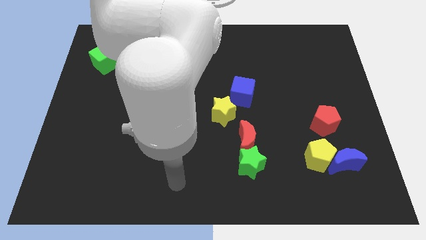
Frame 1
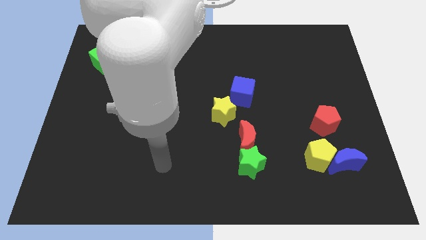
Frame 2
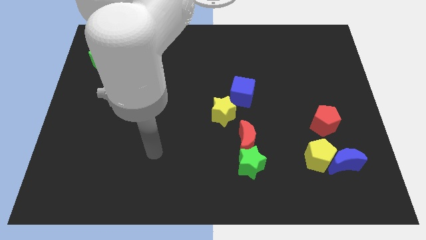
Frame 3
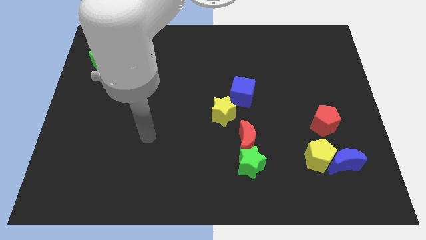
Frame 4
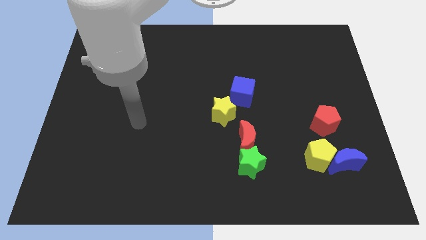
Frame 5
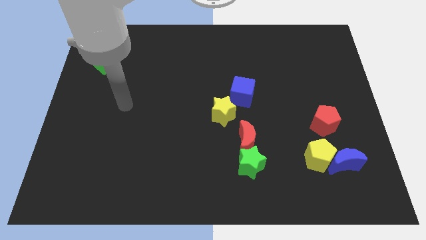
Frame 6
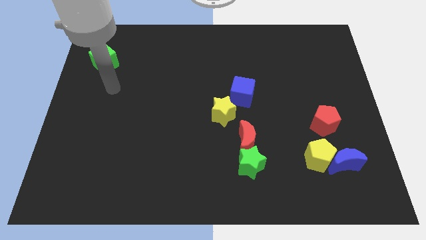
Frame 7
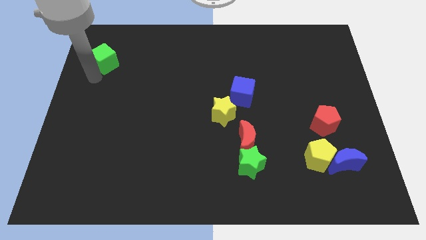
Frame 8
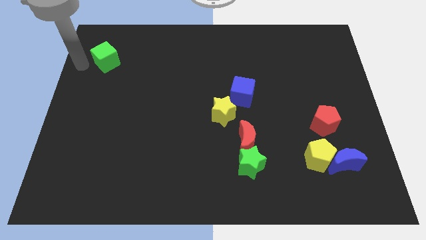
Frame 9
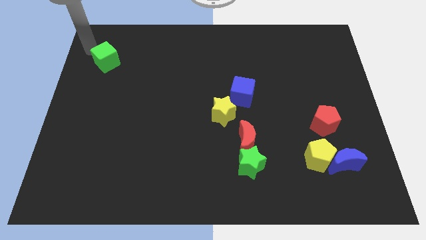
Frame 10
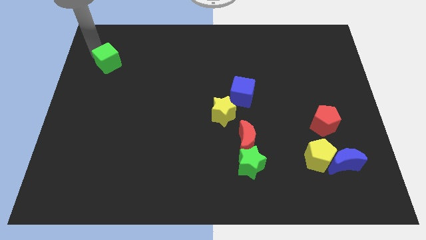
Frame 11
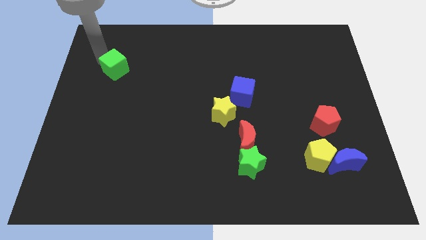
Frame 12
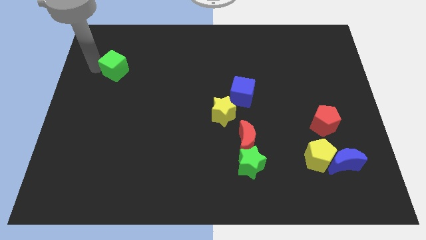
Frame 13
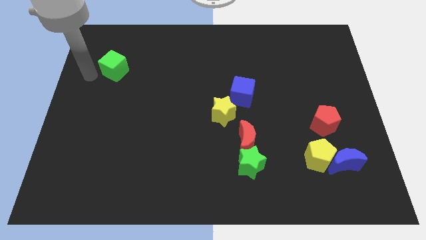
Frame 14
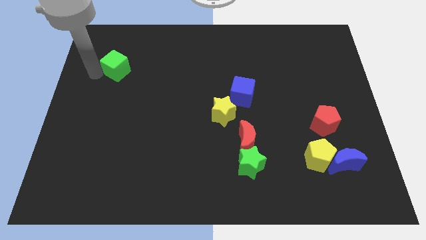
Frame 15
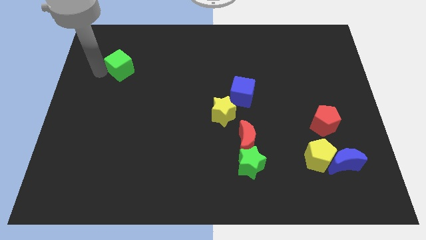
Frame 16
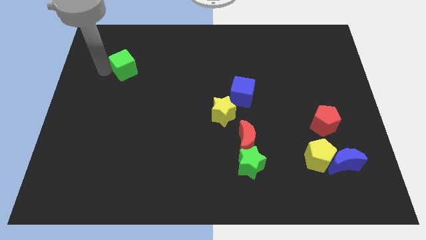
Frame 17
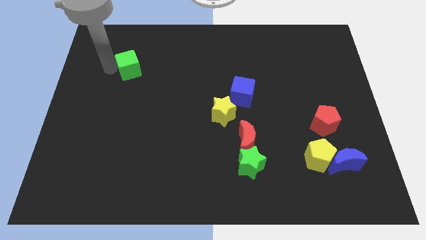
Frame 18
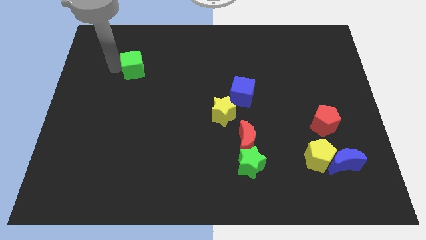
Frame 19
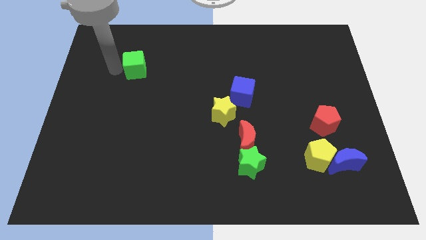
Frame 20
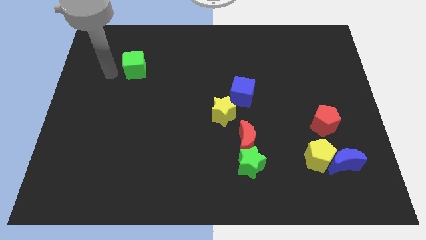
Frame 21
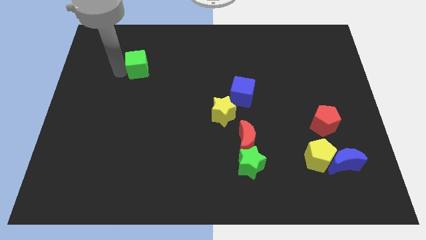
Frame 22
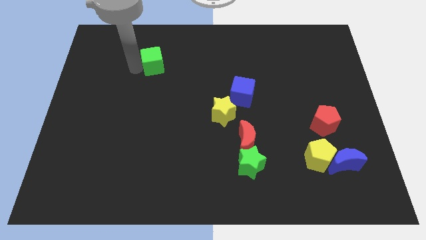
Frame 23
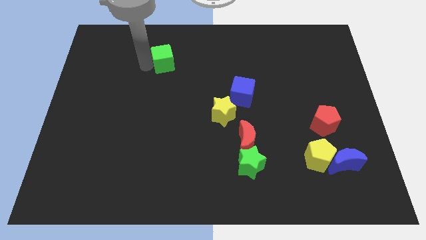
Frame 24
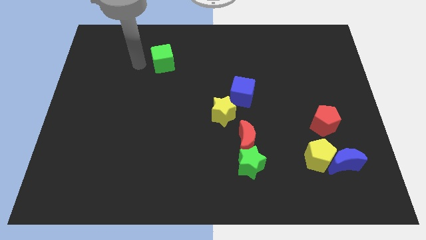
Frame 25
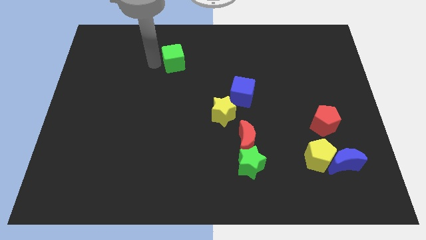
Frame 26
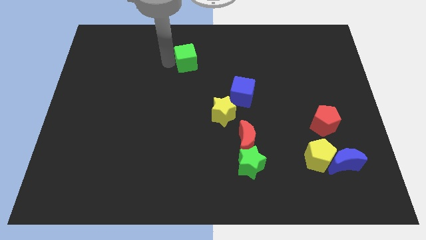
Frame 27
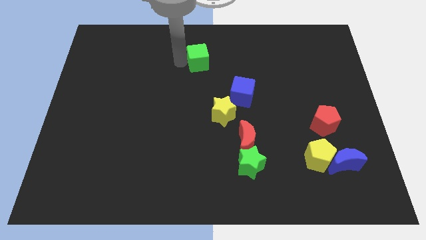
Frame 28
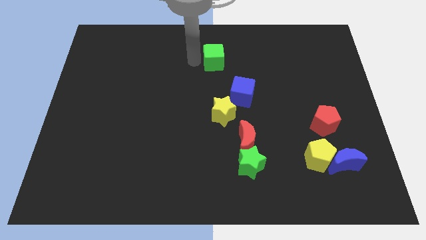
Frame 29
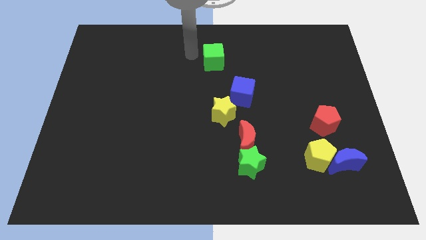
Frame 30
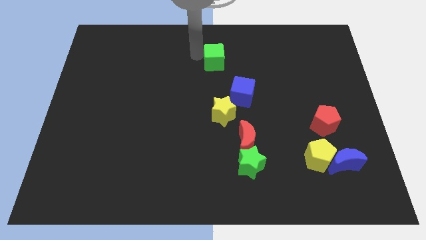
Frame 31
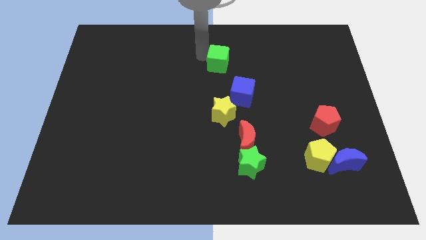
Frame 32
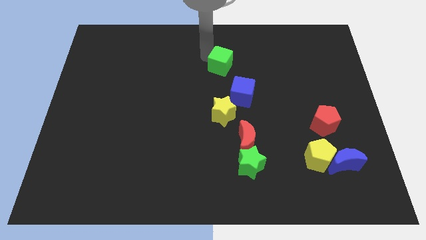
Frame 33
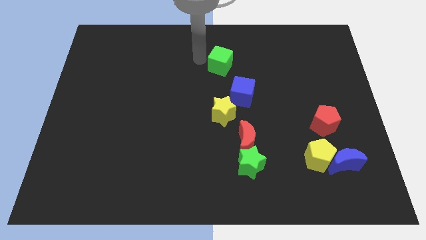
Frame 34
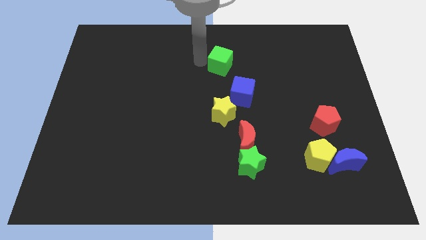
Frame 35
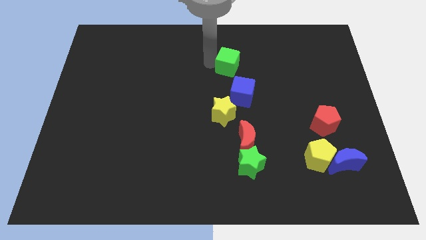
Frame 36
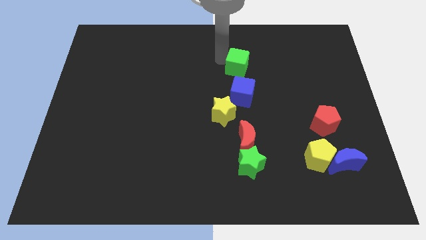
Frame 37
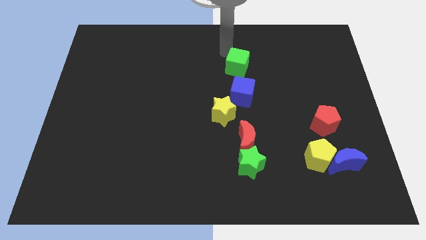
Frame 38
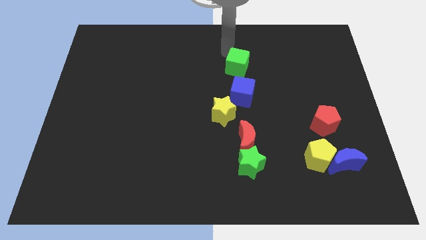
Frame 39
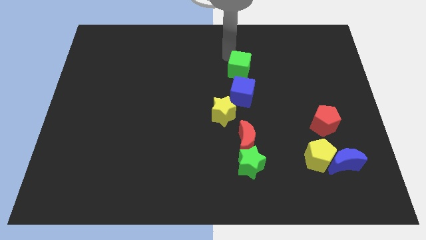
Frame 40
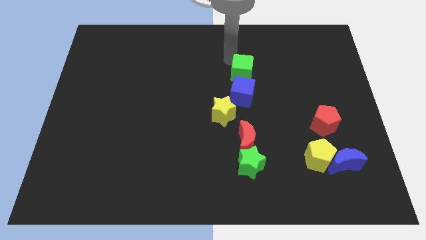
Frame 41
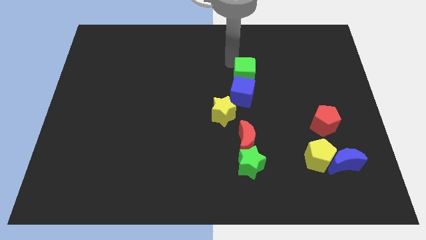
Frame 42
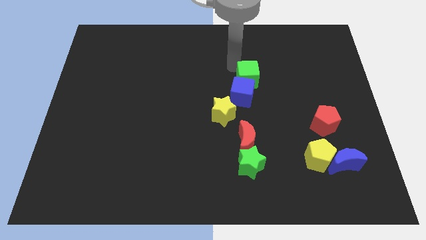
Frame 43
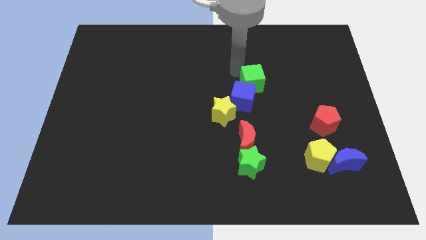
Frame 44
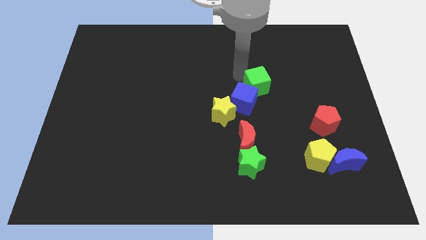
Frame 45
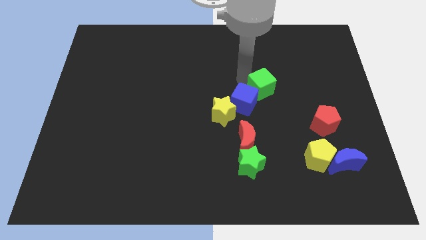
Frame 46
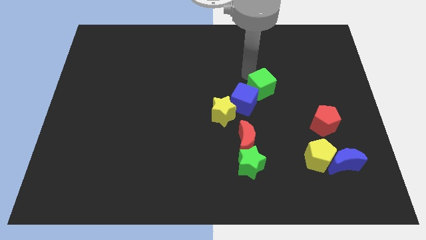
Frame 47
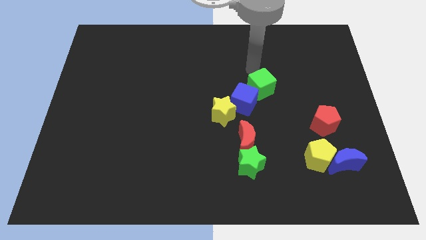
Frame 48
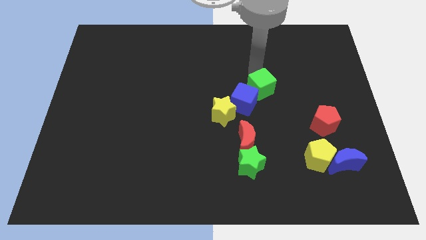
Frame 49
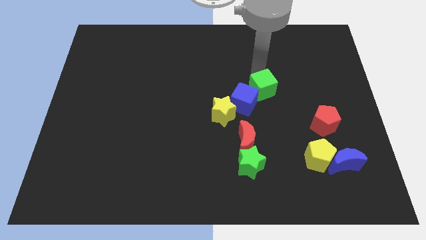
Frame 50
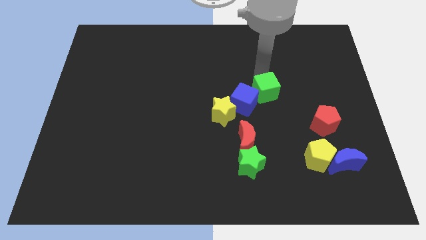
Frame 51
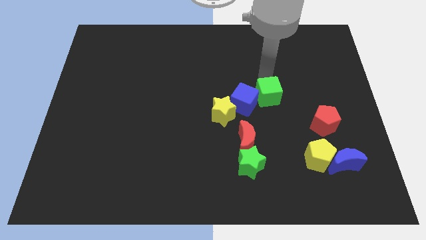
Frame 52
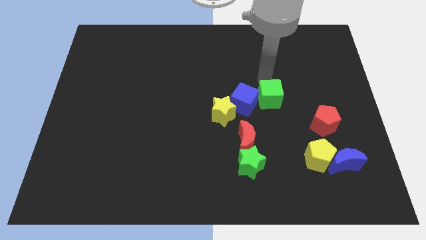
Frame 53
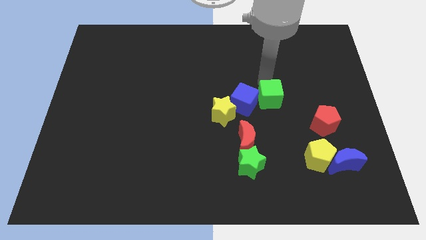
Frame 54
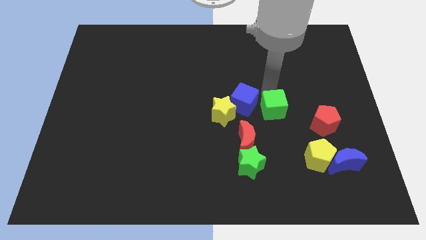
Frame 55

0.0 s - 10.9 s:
push the green cube to the left side of the red pentagon

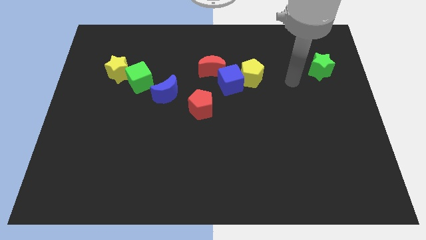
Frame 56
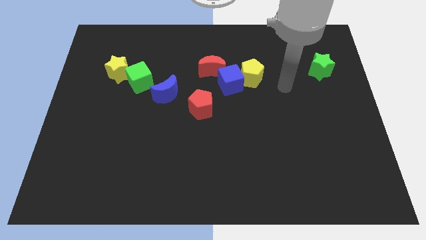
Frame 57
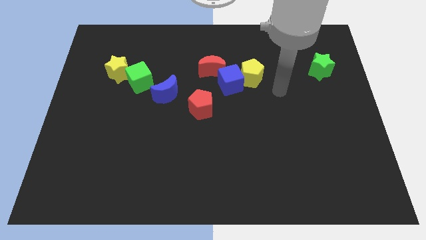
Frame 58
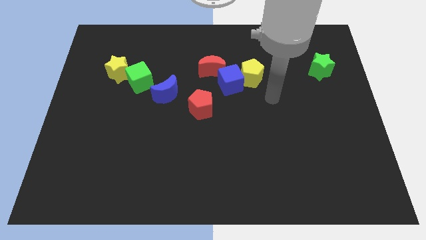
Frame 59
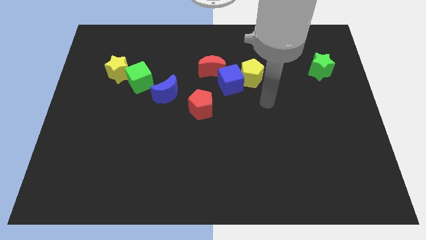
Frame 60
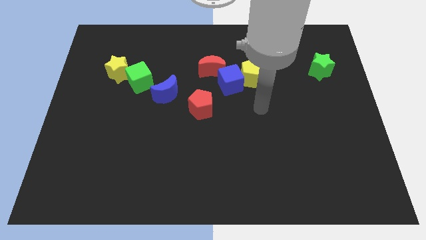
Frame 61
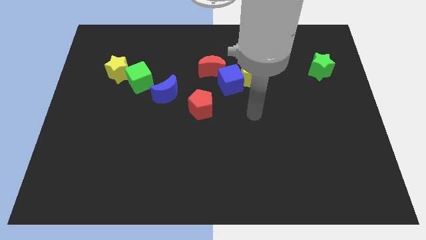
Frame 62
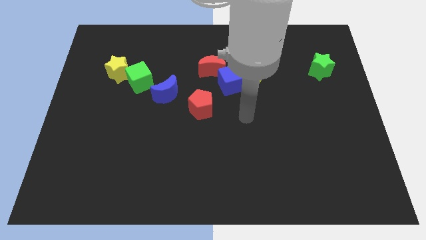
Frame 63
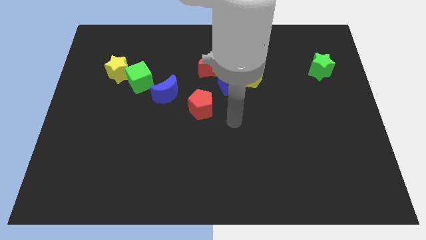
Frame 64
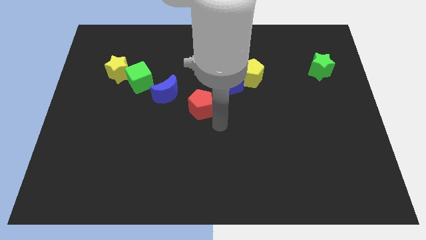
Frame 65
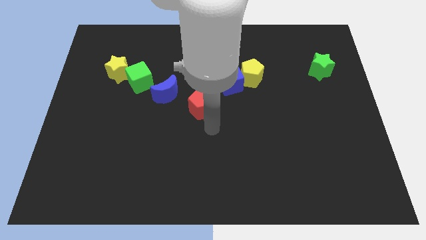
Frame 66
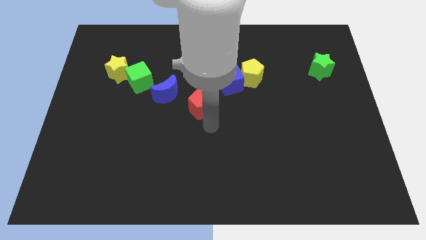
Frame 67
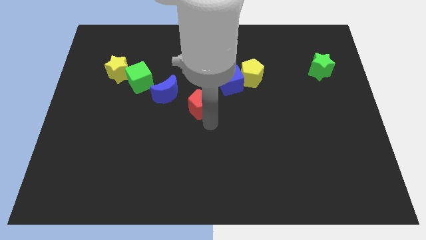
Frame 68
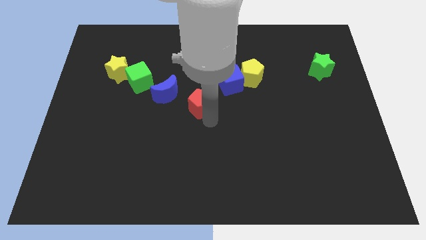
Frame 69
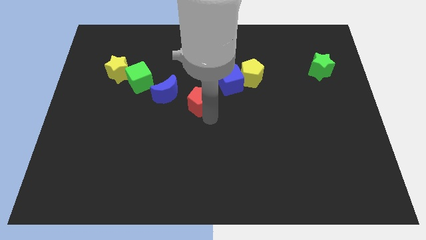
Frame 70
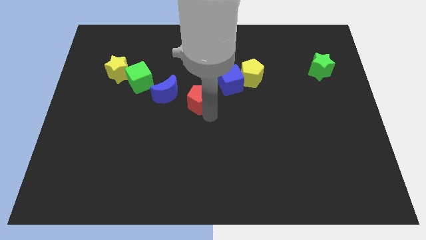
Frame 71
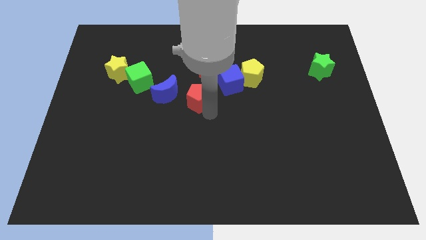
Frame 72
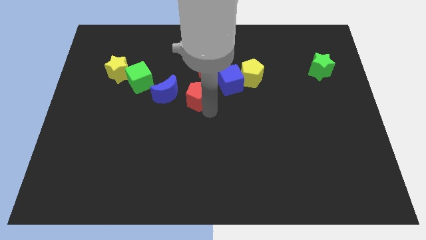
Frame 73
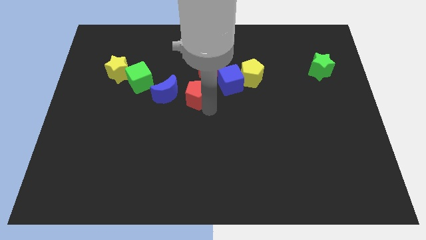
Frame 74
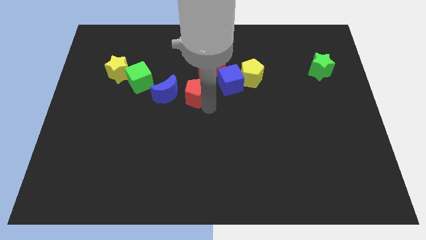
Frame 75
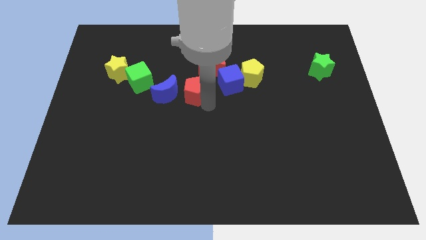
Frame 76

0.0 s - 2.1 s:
push the red pentagon to the top right of the blue moon
